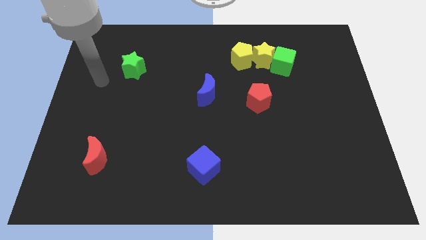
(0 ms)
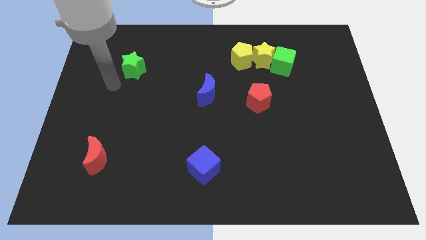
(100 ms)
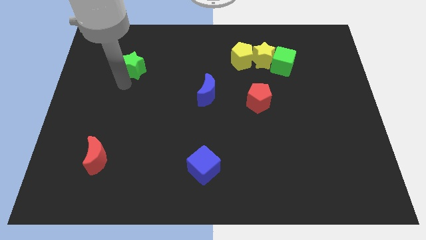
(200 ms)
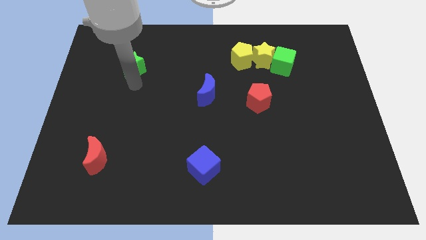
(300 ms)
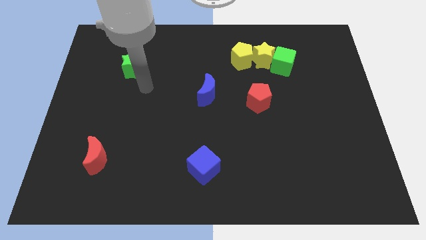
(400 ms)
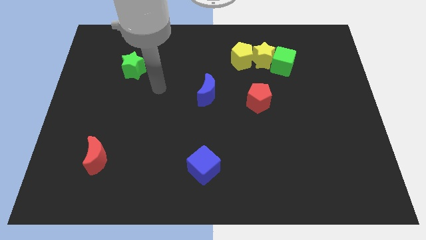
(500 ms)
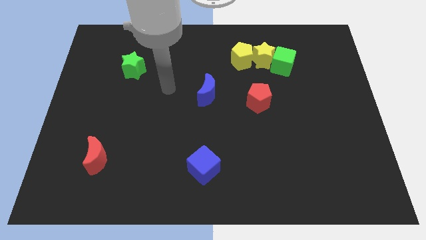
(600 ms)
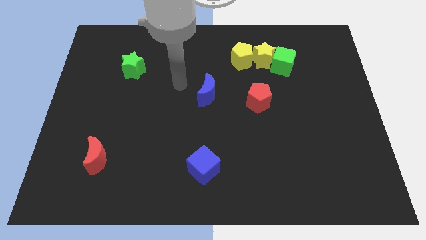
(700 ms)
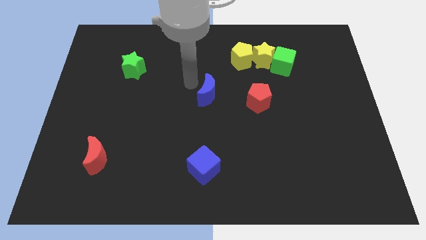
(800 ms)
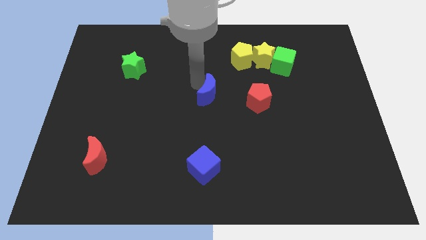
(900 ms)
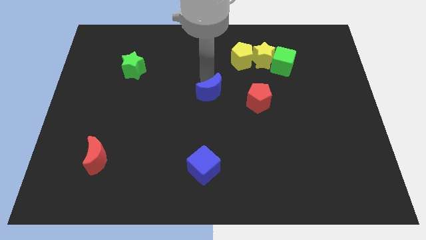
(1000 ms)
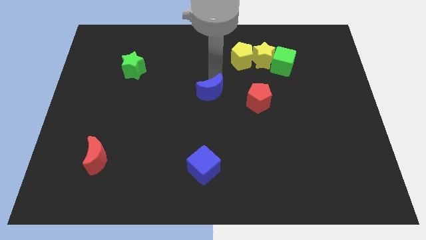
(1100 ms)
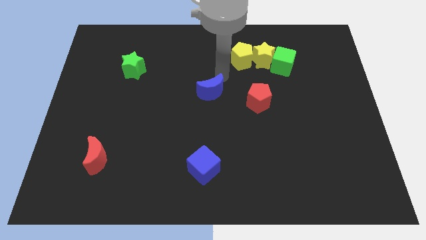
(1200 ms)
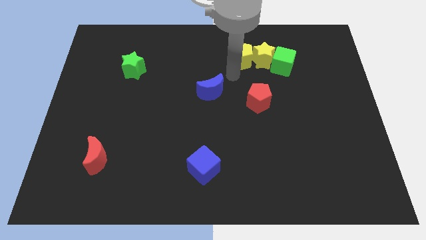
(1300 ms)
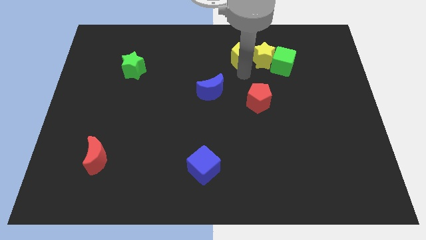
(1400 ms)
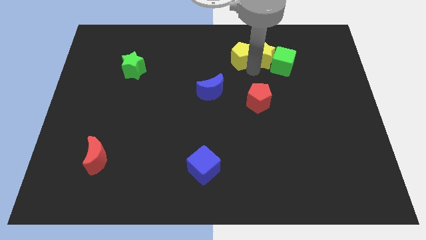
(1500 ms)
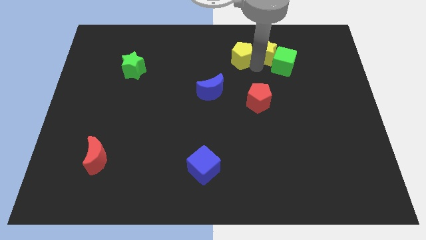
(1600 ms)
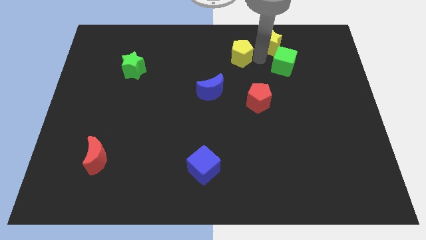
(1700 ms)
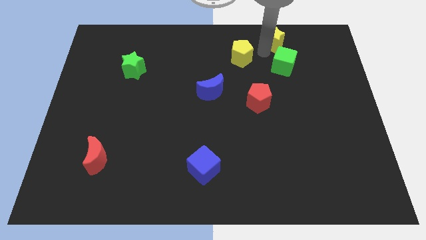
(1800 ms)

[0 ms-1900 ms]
pull the yellow pentagon apart from the yellow star

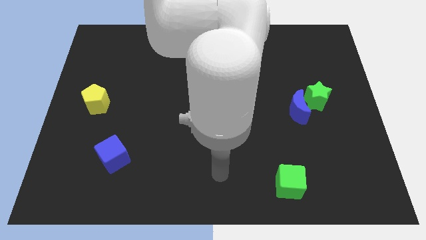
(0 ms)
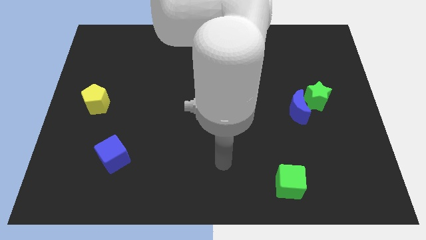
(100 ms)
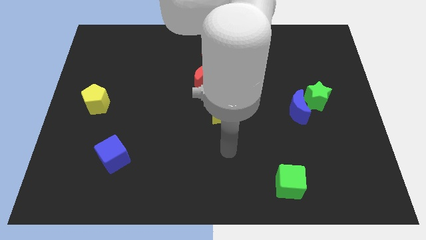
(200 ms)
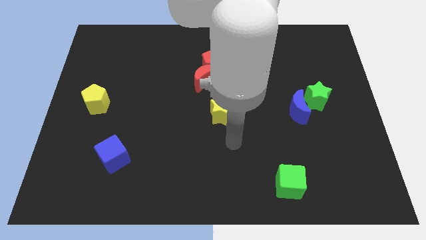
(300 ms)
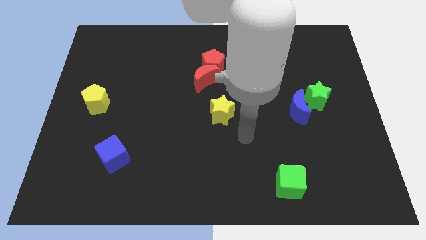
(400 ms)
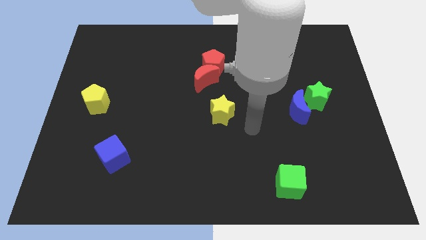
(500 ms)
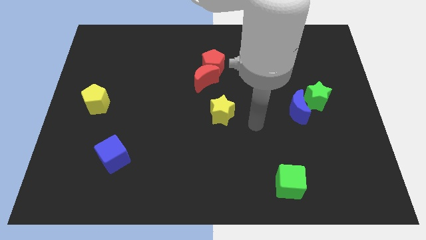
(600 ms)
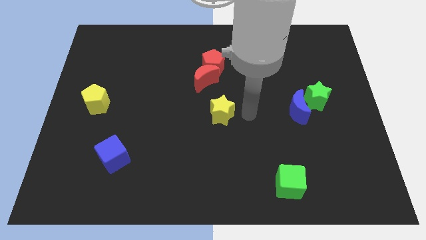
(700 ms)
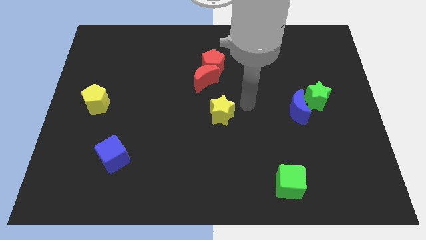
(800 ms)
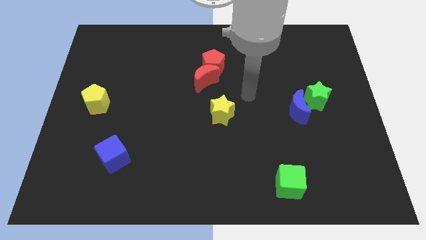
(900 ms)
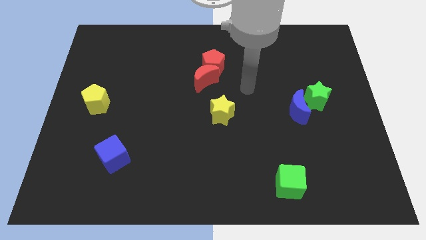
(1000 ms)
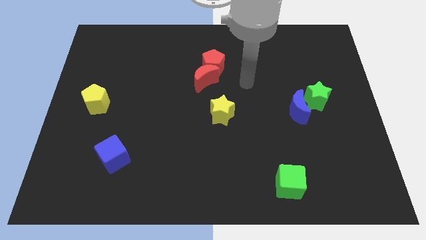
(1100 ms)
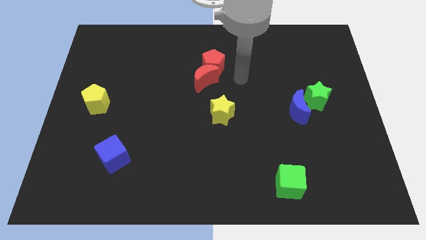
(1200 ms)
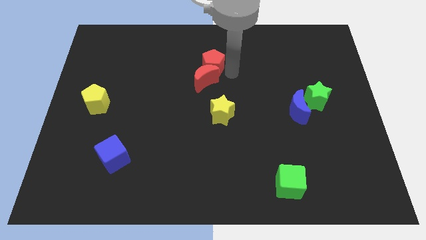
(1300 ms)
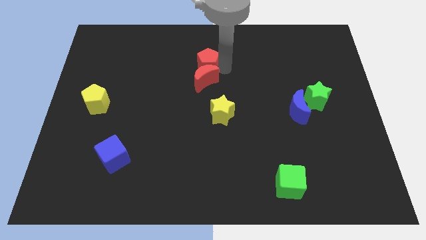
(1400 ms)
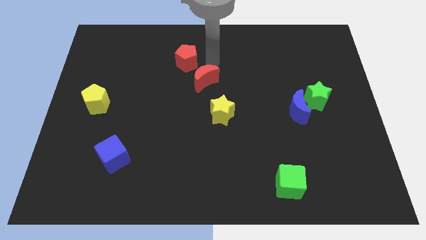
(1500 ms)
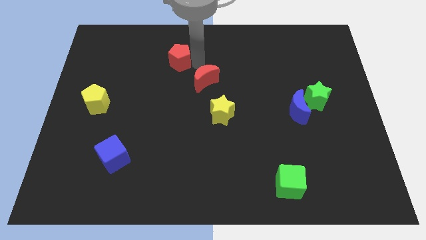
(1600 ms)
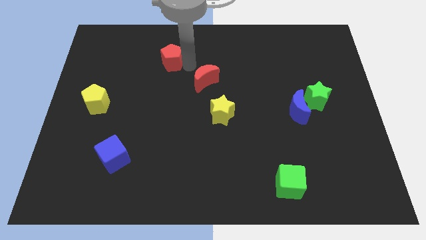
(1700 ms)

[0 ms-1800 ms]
separate the red moon from the red pentagon

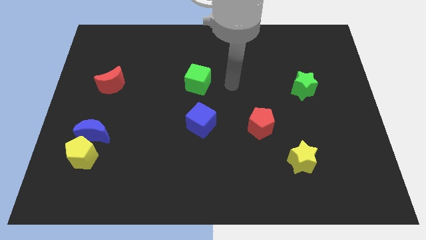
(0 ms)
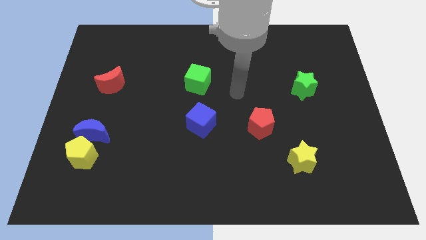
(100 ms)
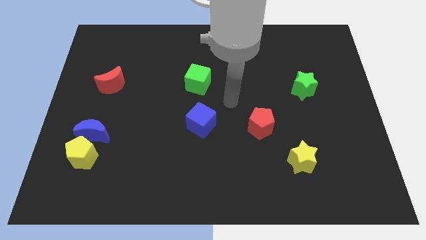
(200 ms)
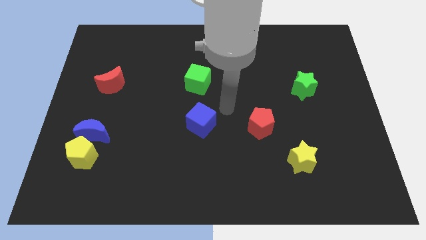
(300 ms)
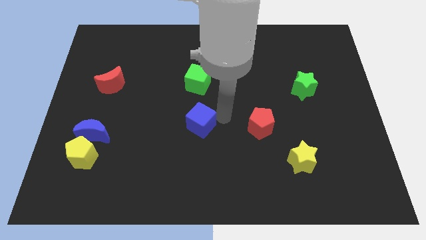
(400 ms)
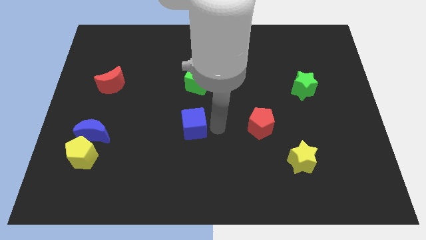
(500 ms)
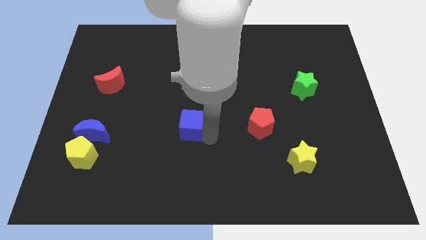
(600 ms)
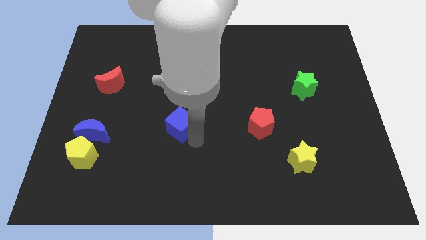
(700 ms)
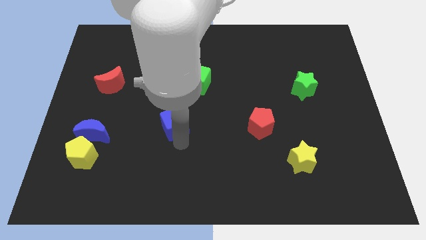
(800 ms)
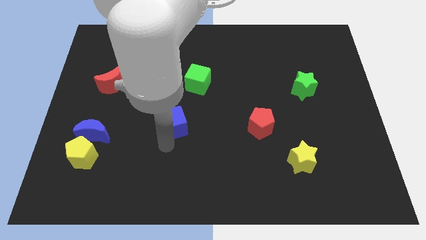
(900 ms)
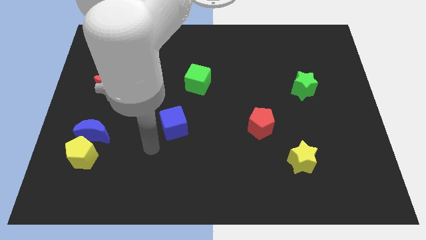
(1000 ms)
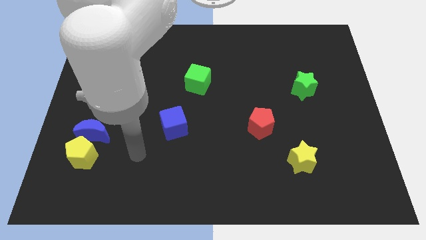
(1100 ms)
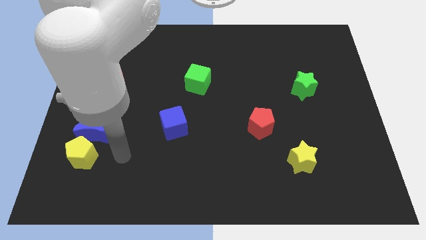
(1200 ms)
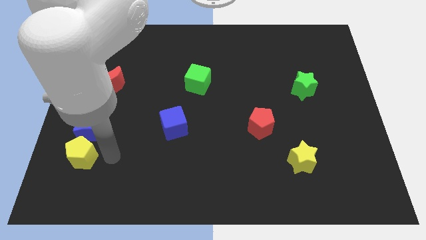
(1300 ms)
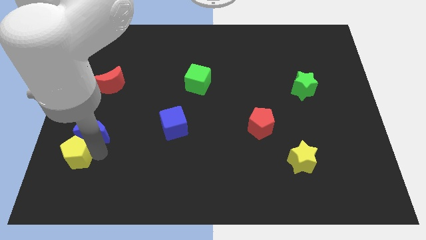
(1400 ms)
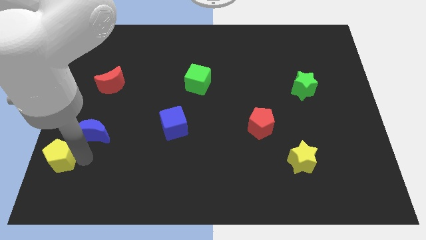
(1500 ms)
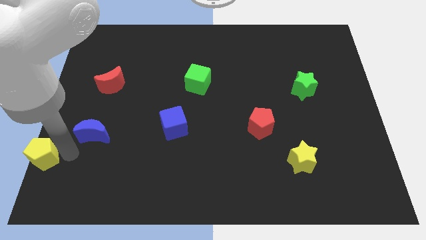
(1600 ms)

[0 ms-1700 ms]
separate the blue moon from the yellow pentagon

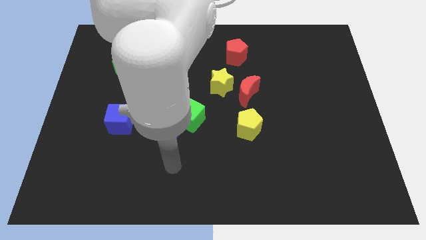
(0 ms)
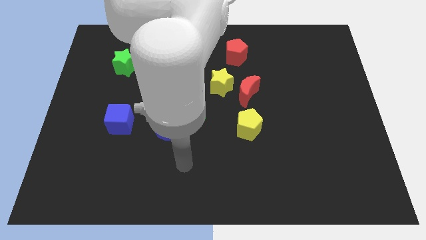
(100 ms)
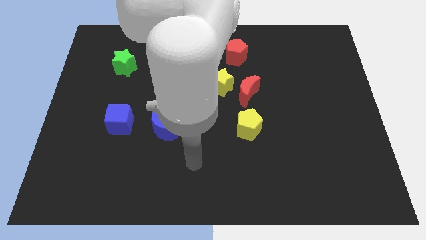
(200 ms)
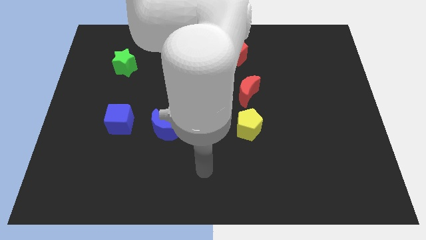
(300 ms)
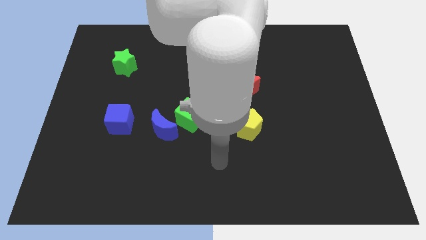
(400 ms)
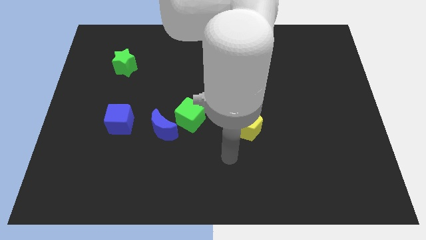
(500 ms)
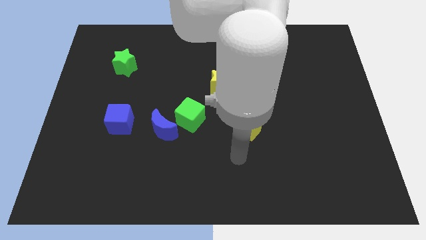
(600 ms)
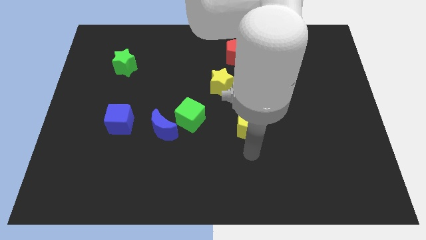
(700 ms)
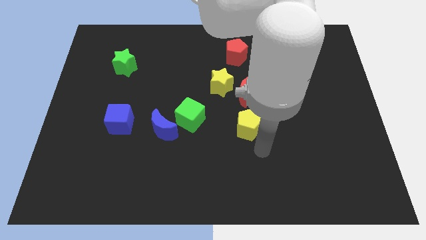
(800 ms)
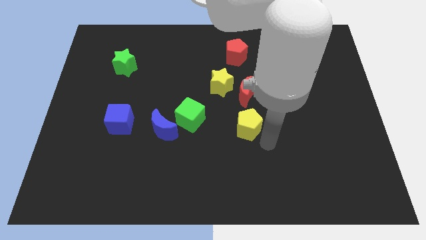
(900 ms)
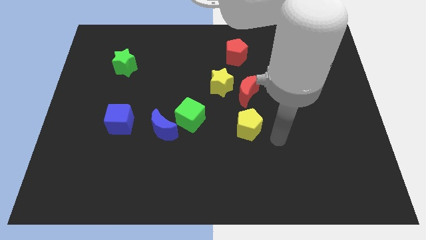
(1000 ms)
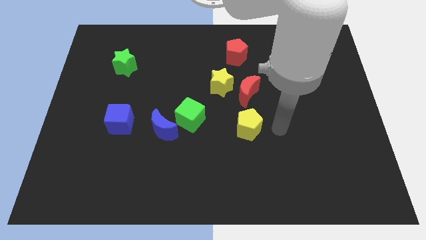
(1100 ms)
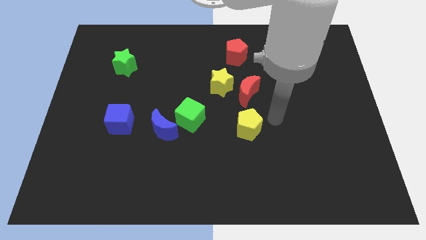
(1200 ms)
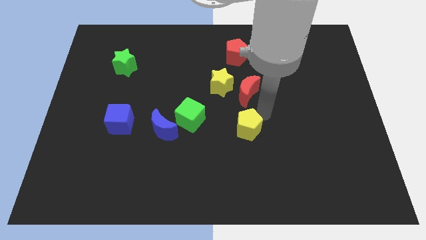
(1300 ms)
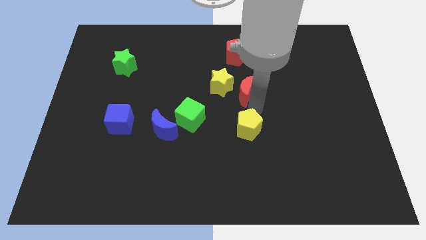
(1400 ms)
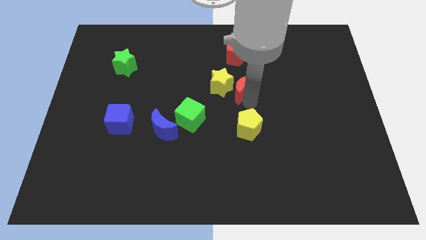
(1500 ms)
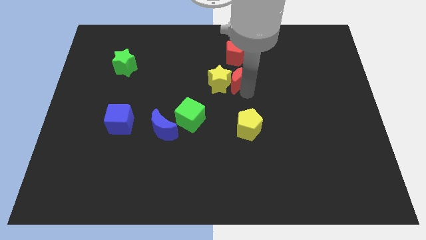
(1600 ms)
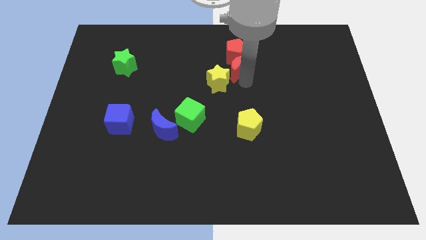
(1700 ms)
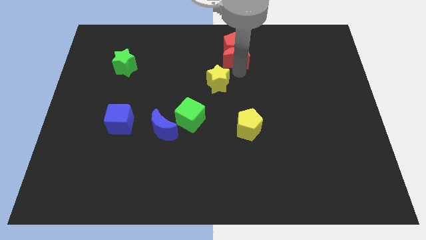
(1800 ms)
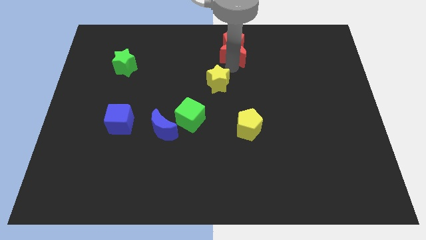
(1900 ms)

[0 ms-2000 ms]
separate the yellow star from the red moon

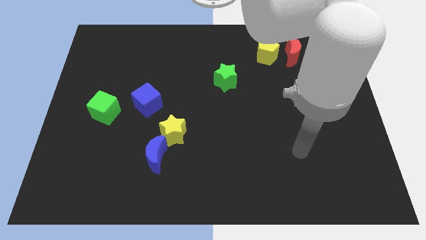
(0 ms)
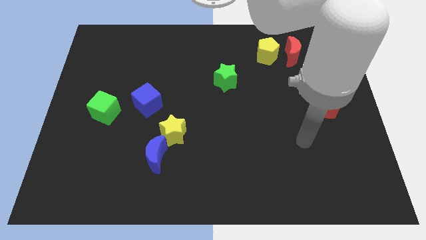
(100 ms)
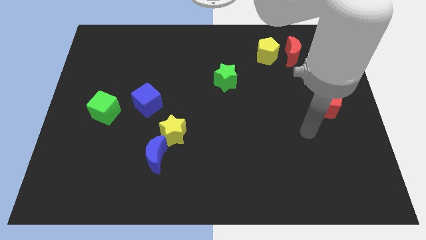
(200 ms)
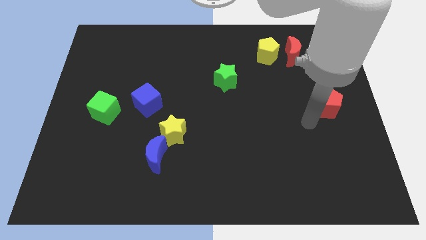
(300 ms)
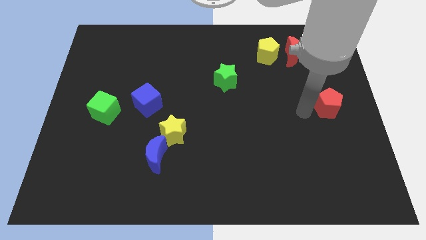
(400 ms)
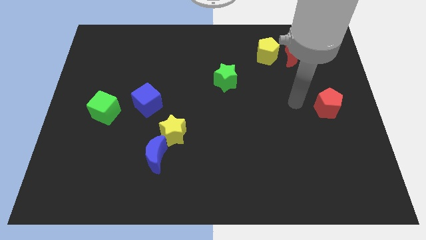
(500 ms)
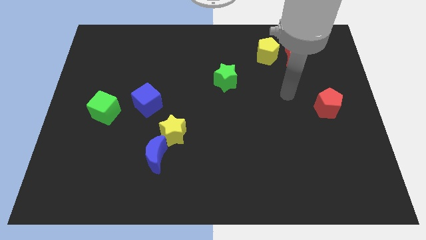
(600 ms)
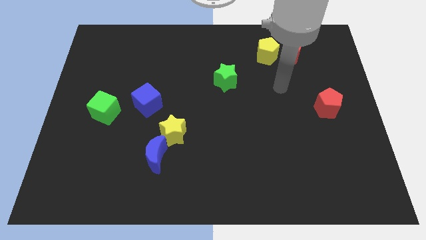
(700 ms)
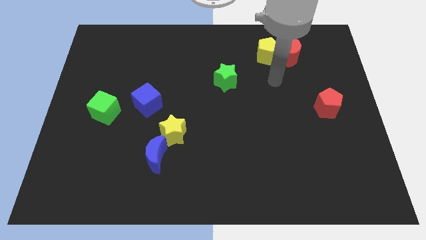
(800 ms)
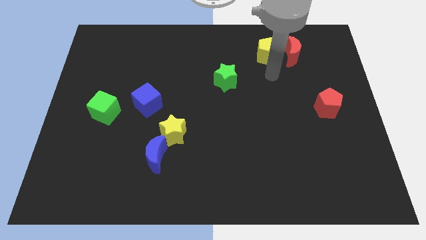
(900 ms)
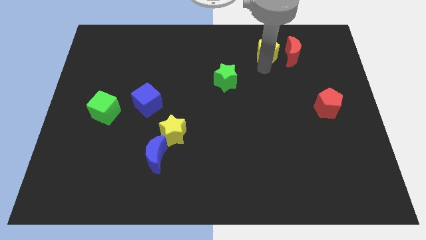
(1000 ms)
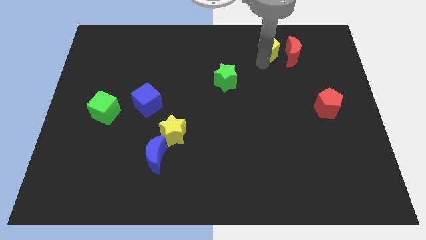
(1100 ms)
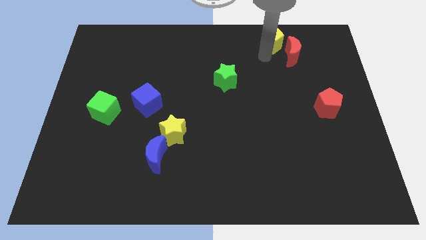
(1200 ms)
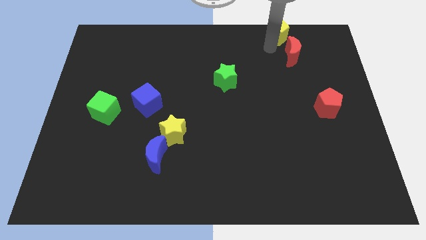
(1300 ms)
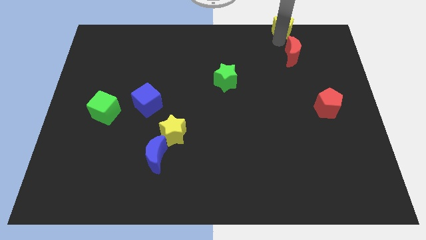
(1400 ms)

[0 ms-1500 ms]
move the red moon away from the yellow pentagon

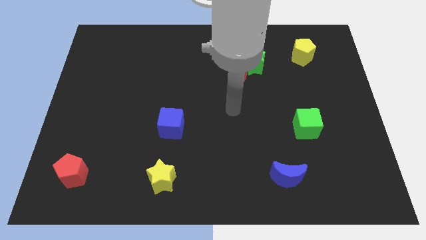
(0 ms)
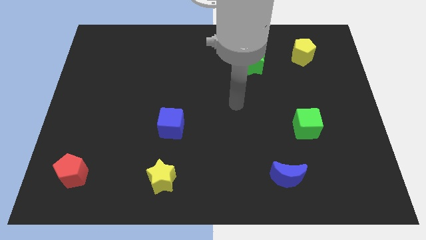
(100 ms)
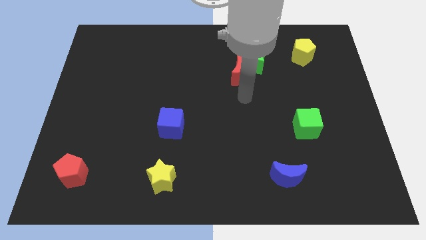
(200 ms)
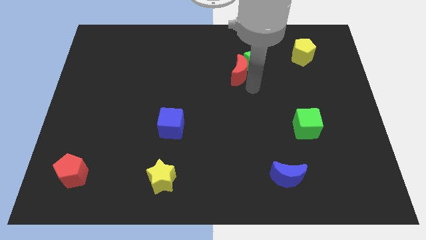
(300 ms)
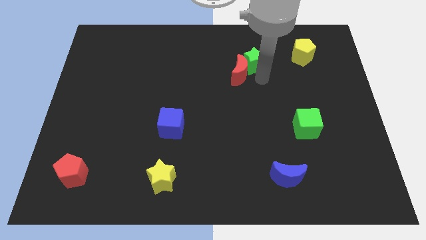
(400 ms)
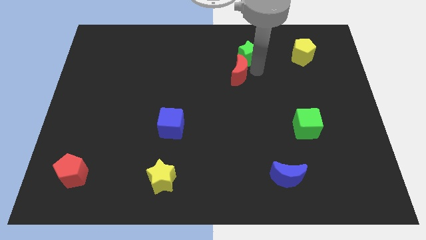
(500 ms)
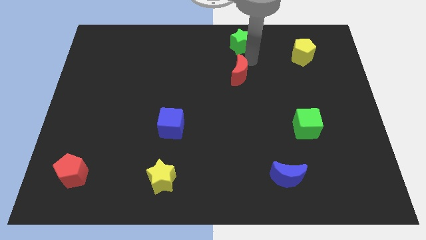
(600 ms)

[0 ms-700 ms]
move the red moon away from the green star
